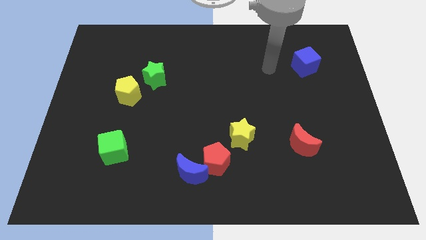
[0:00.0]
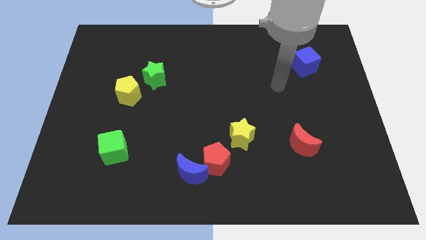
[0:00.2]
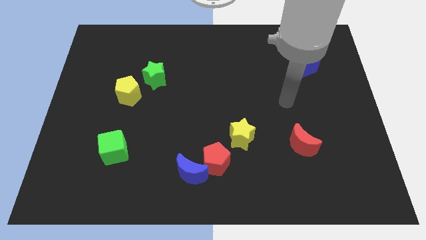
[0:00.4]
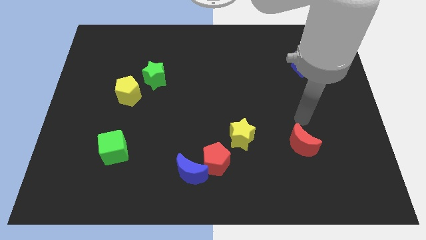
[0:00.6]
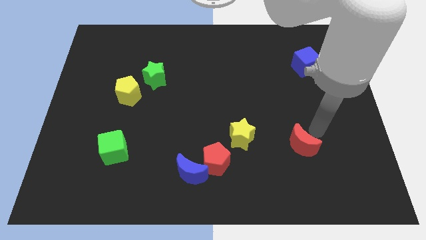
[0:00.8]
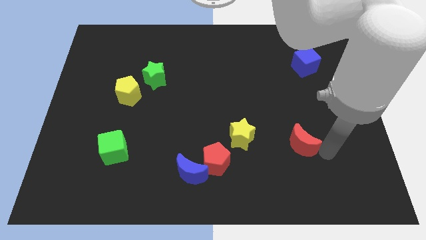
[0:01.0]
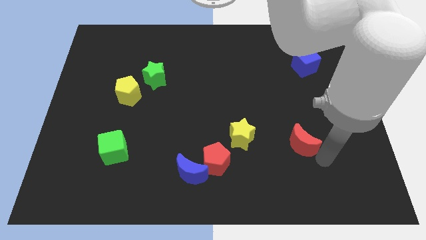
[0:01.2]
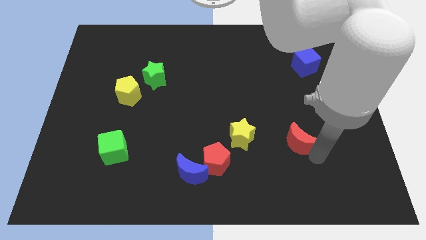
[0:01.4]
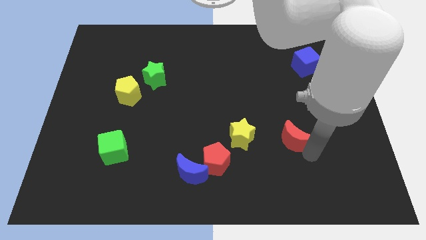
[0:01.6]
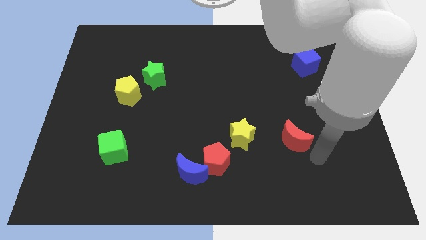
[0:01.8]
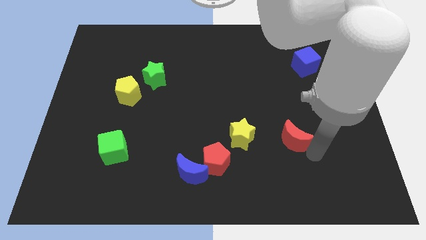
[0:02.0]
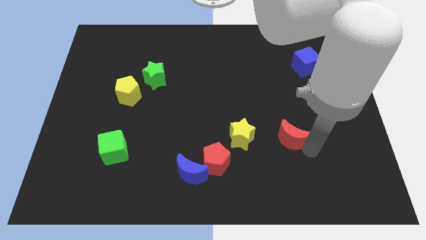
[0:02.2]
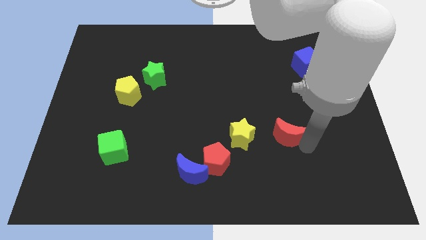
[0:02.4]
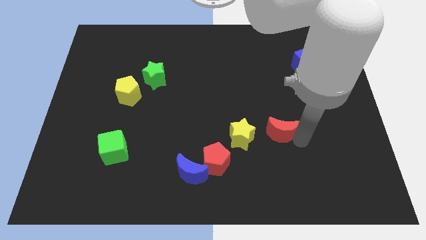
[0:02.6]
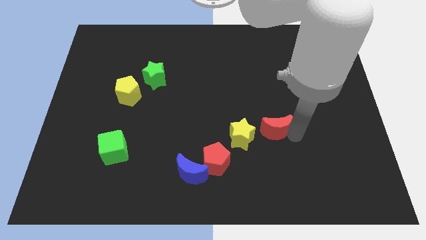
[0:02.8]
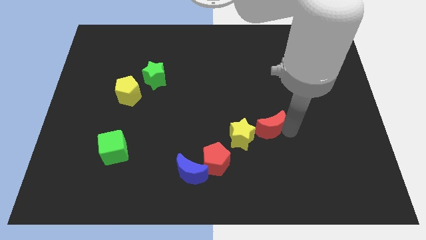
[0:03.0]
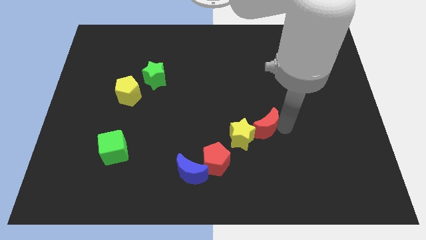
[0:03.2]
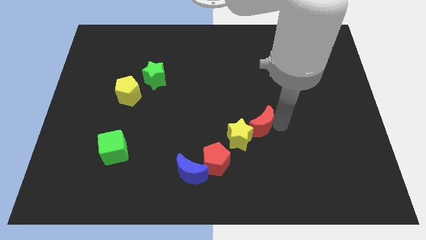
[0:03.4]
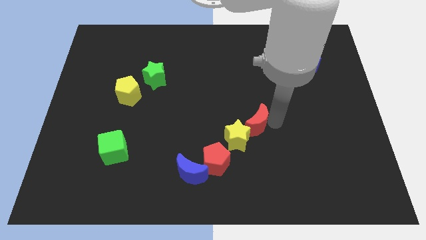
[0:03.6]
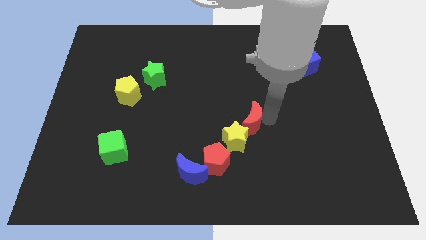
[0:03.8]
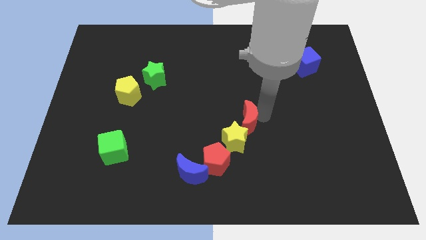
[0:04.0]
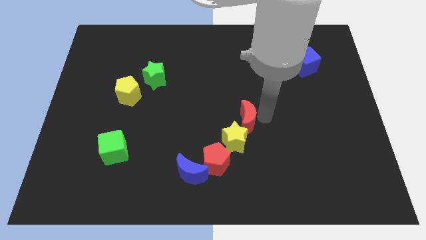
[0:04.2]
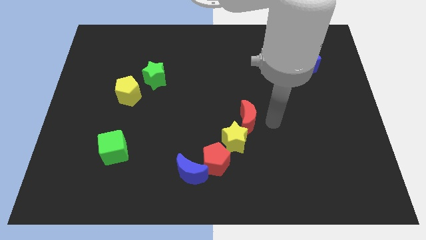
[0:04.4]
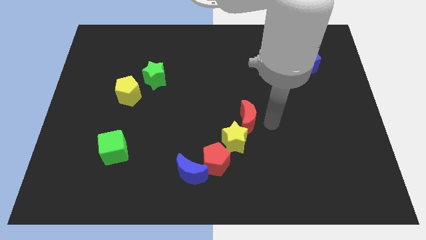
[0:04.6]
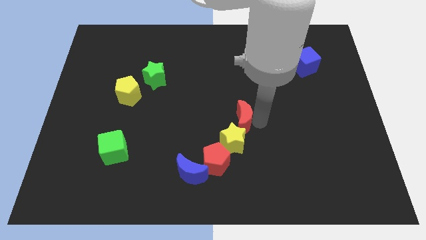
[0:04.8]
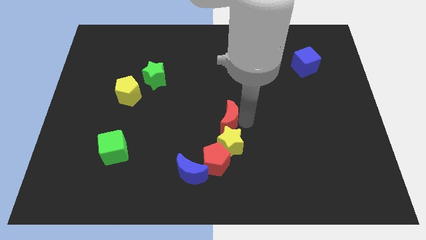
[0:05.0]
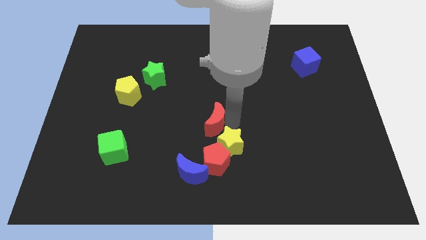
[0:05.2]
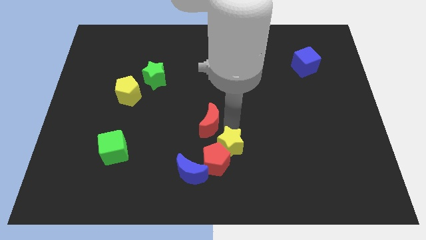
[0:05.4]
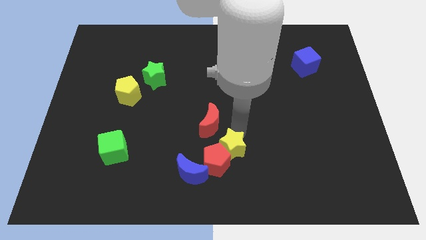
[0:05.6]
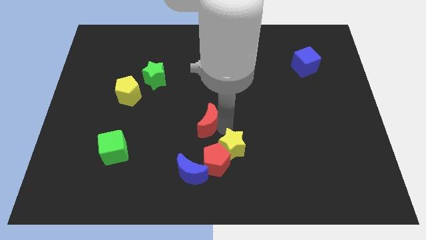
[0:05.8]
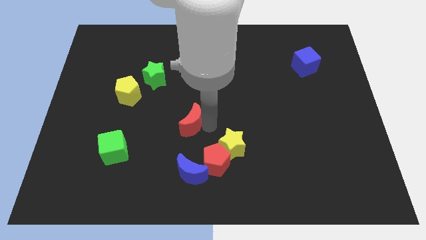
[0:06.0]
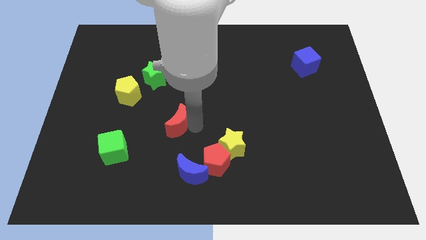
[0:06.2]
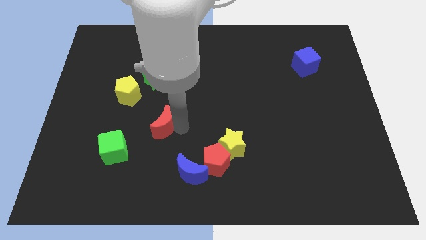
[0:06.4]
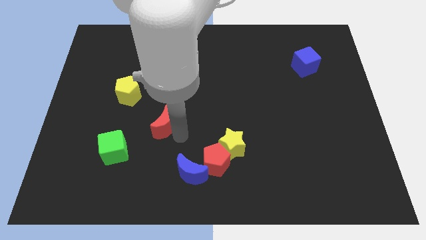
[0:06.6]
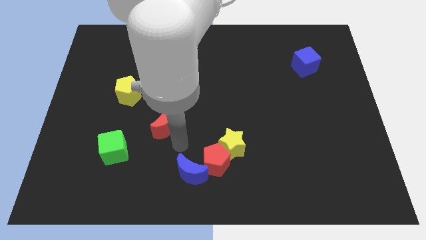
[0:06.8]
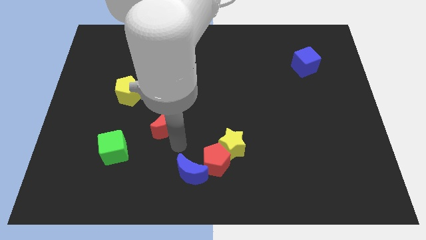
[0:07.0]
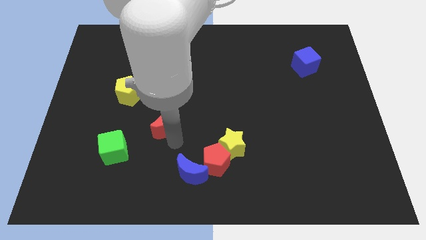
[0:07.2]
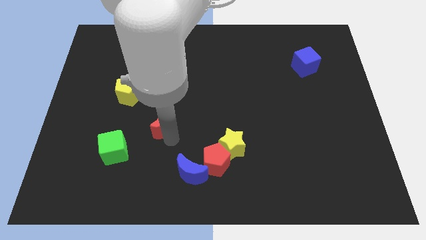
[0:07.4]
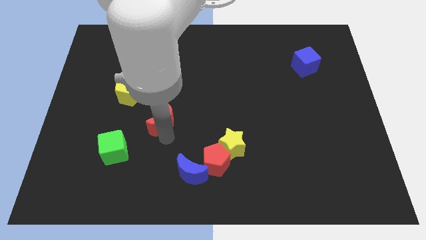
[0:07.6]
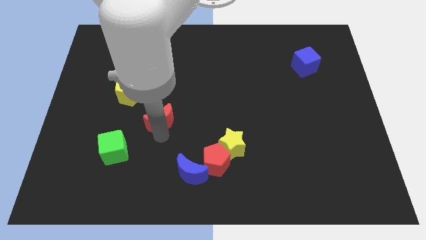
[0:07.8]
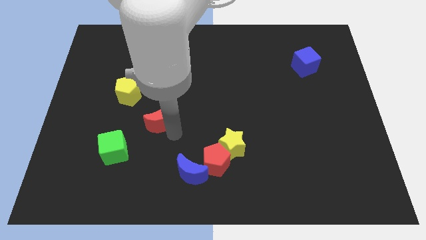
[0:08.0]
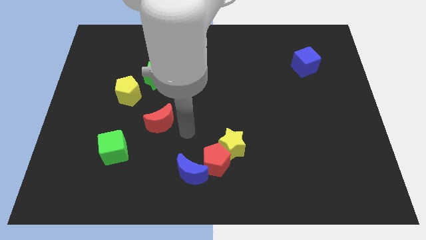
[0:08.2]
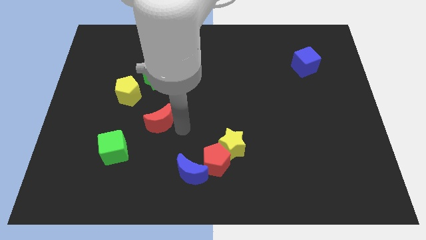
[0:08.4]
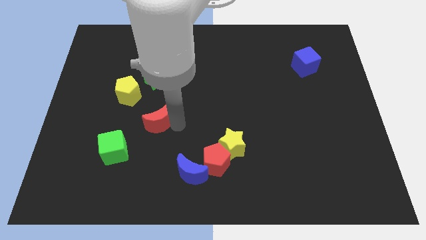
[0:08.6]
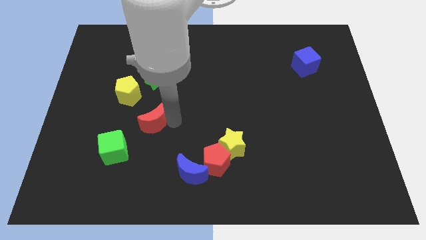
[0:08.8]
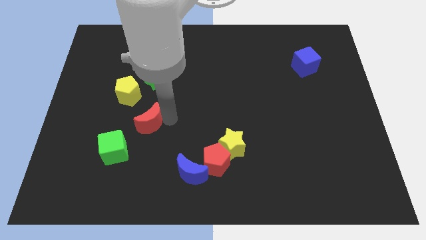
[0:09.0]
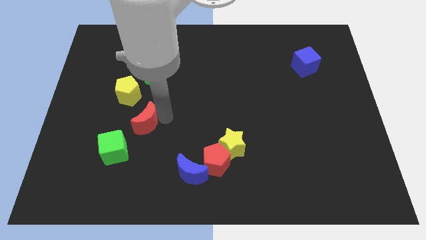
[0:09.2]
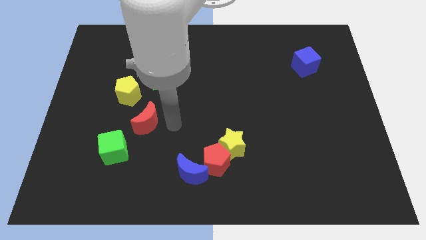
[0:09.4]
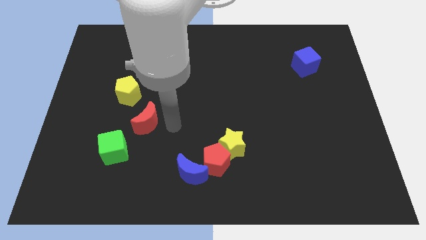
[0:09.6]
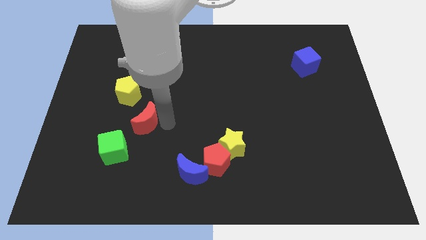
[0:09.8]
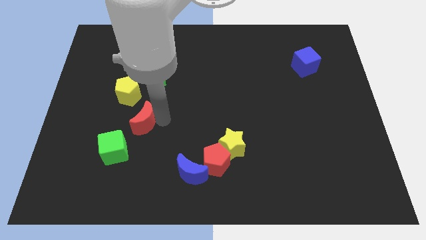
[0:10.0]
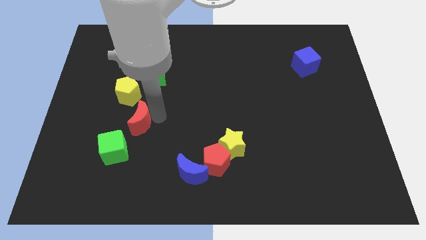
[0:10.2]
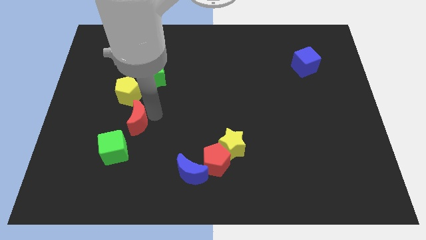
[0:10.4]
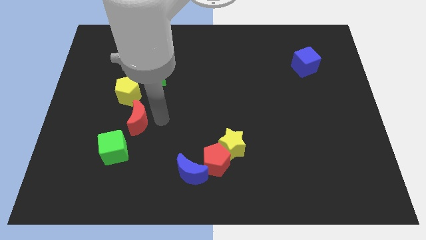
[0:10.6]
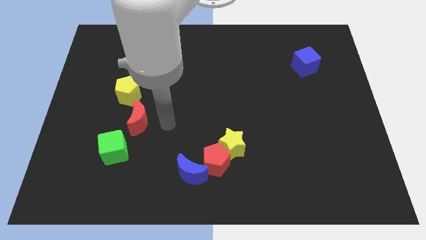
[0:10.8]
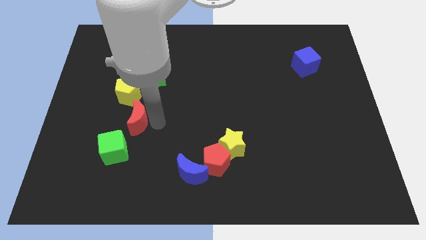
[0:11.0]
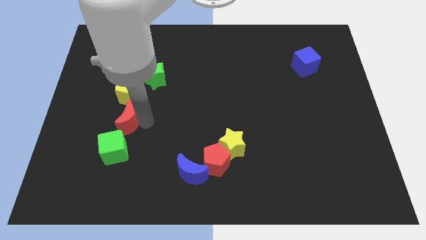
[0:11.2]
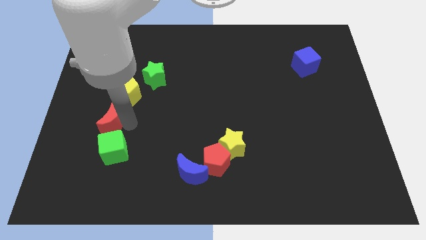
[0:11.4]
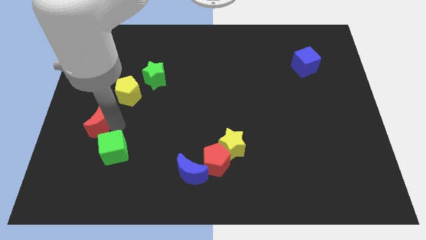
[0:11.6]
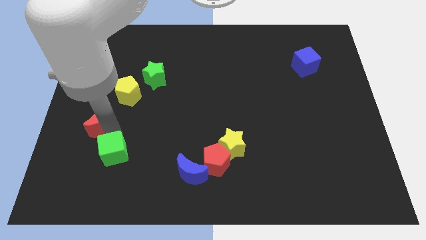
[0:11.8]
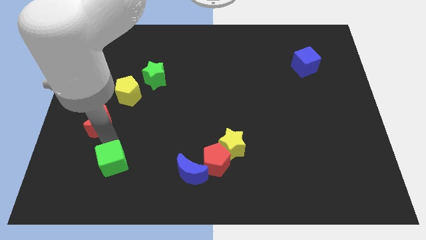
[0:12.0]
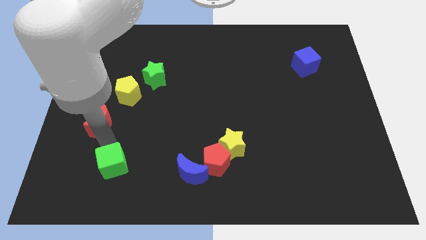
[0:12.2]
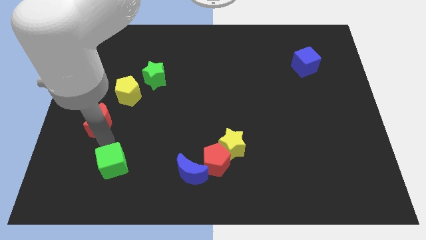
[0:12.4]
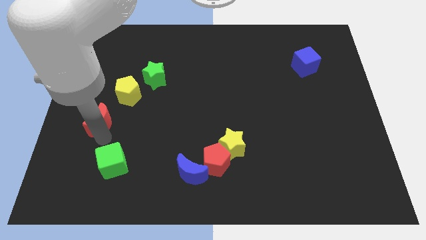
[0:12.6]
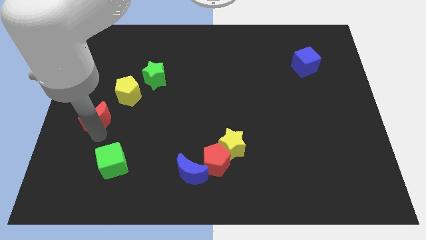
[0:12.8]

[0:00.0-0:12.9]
slide the red moon to the left side of the board
